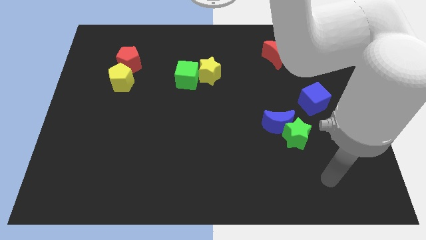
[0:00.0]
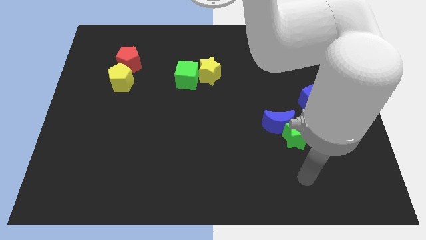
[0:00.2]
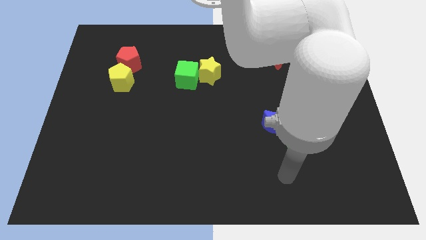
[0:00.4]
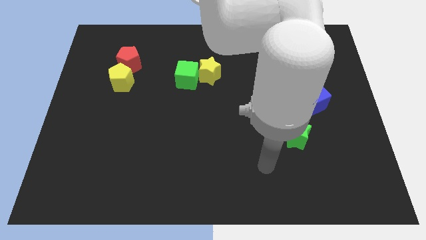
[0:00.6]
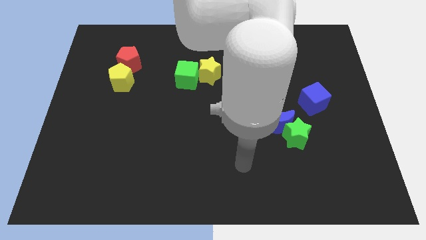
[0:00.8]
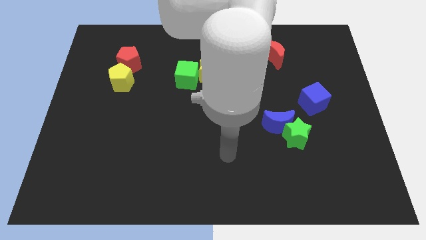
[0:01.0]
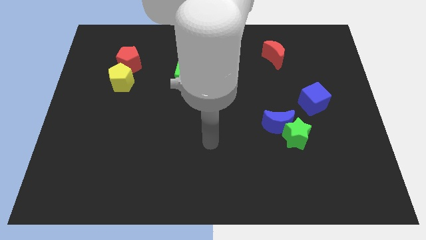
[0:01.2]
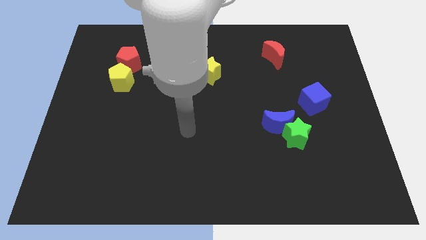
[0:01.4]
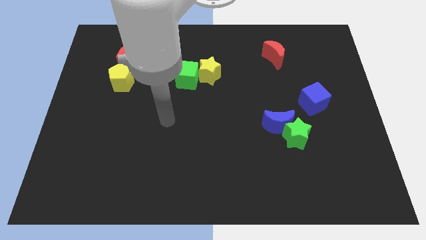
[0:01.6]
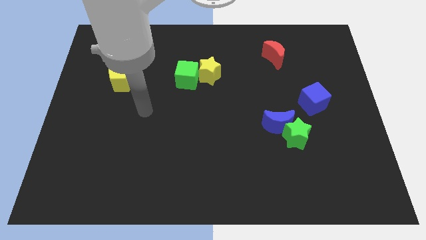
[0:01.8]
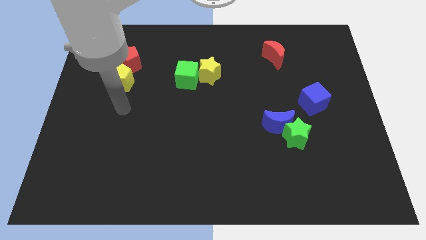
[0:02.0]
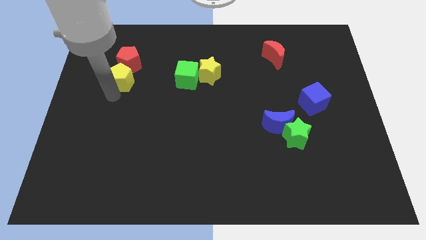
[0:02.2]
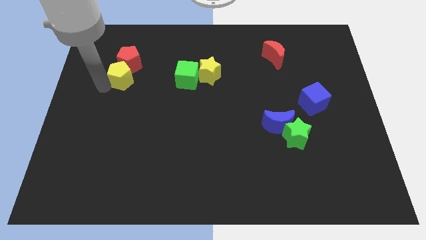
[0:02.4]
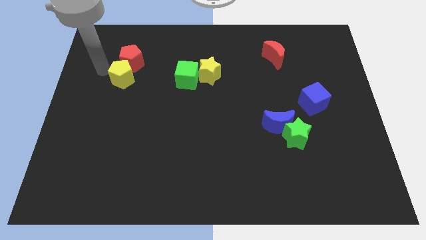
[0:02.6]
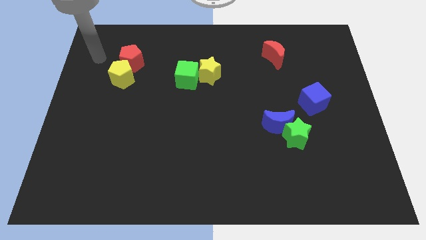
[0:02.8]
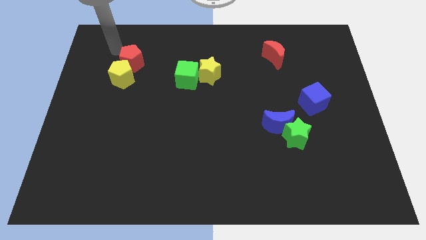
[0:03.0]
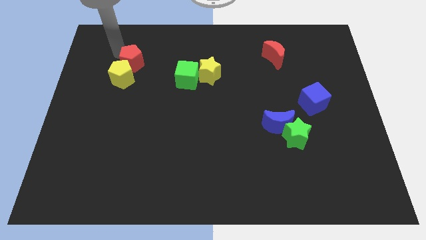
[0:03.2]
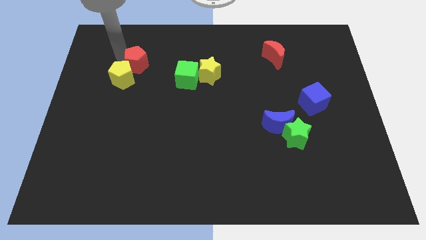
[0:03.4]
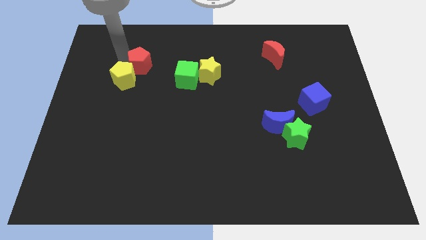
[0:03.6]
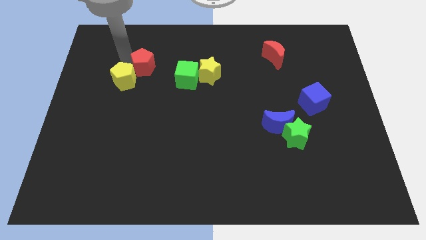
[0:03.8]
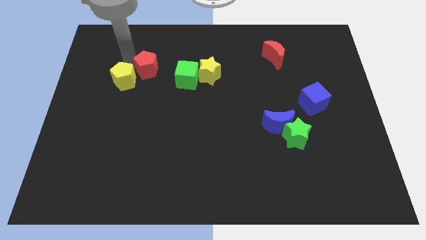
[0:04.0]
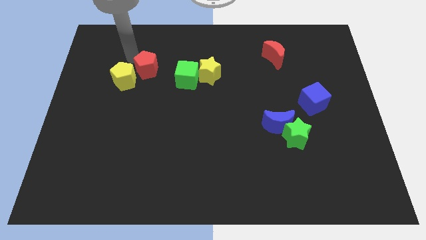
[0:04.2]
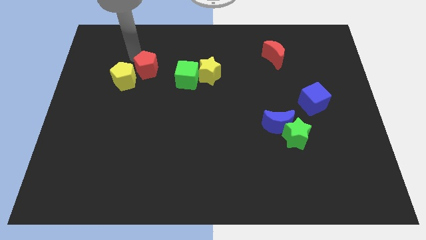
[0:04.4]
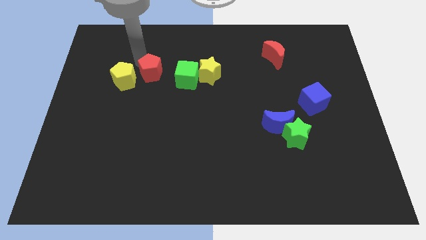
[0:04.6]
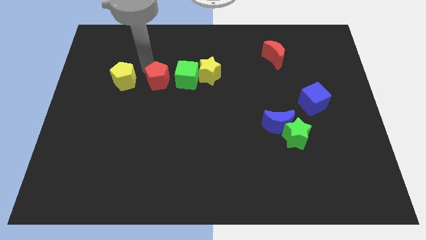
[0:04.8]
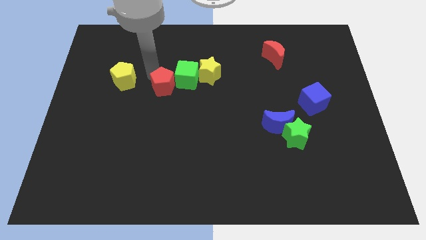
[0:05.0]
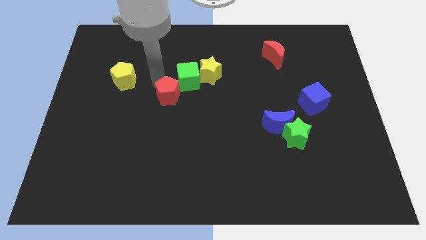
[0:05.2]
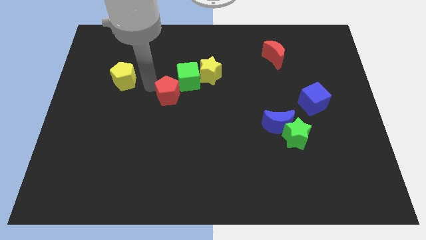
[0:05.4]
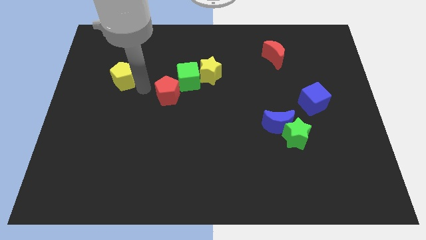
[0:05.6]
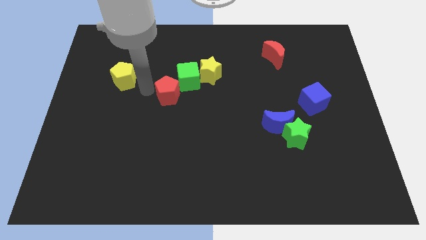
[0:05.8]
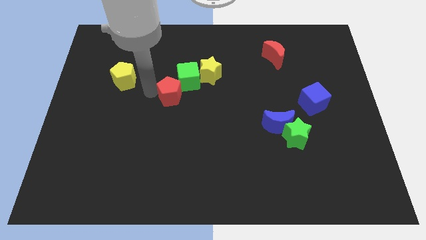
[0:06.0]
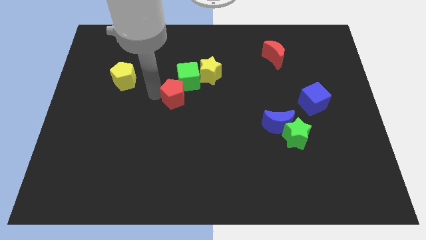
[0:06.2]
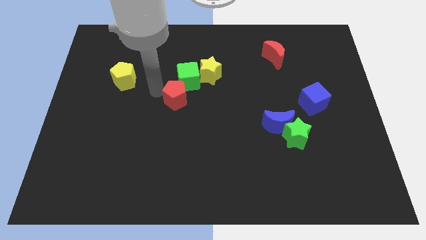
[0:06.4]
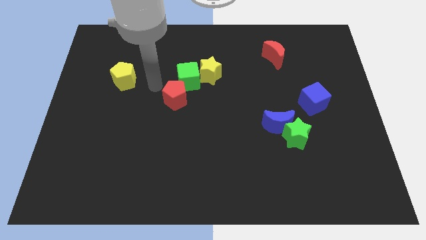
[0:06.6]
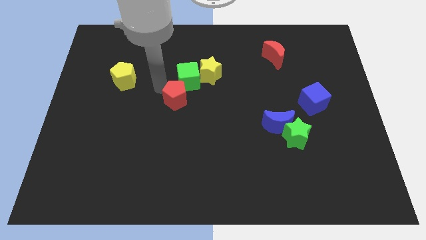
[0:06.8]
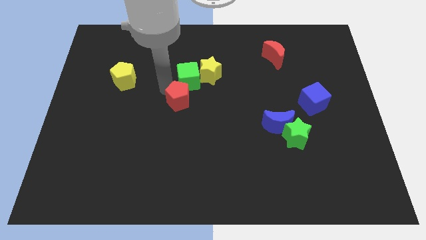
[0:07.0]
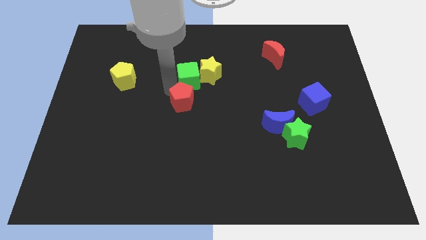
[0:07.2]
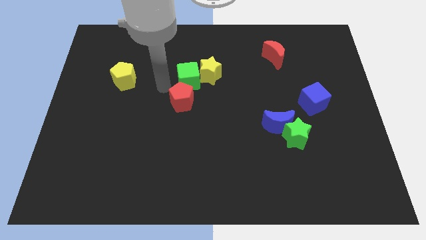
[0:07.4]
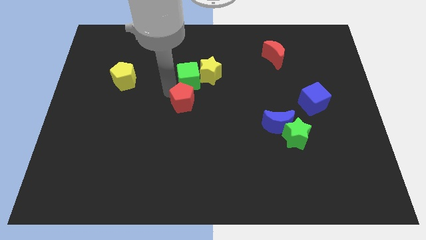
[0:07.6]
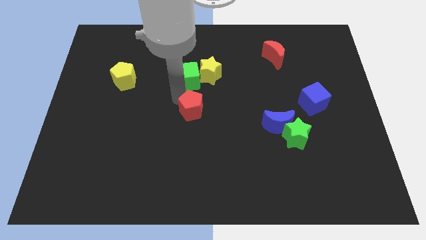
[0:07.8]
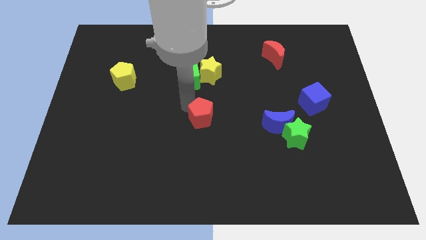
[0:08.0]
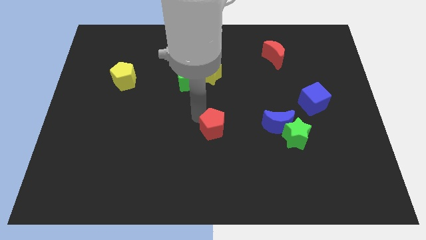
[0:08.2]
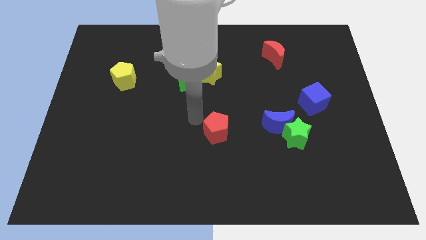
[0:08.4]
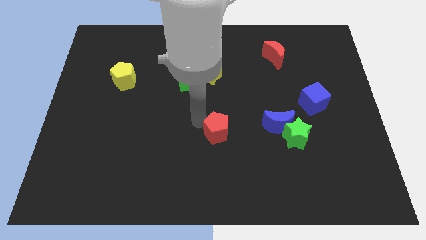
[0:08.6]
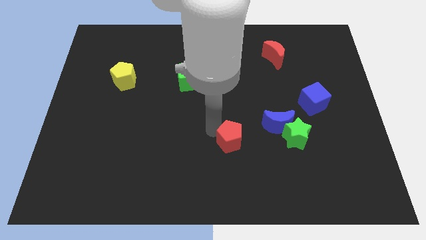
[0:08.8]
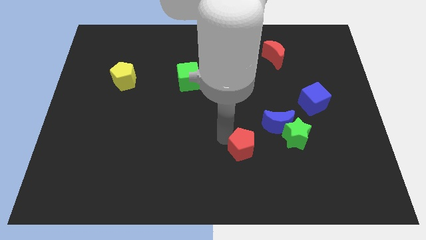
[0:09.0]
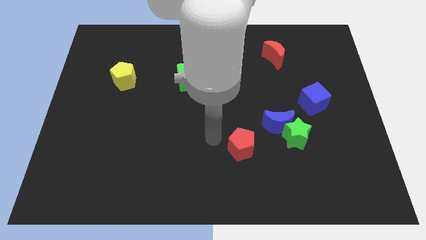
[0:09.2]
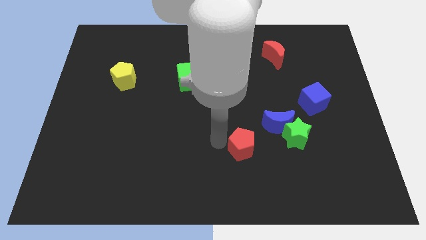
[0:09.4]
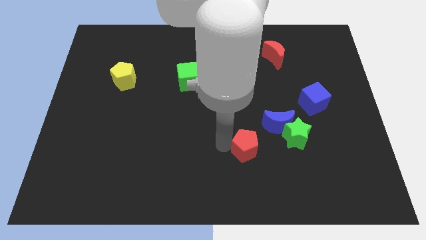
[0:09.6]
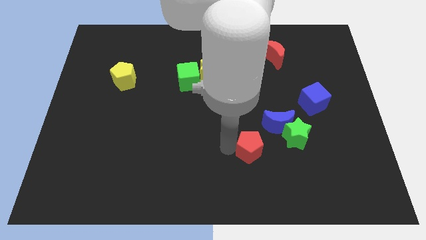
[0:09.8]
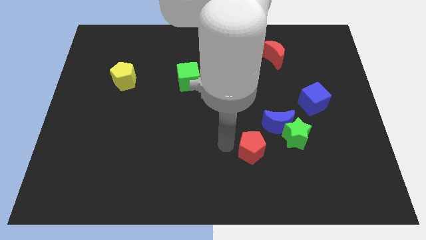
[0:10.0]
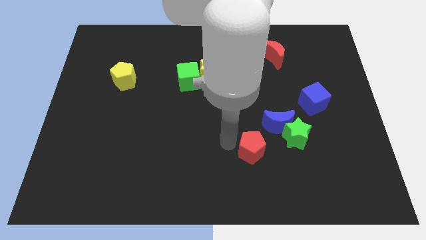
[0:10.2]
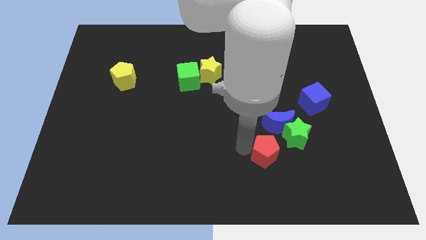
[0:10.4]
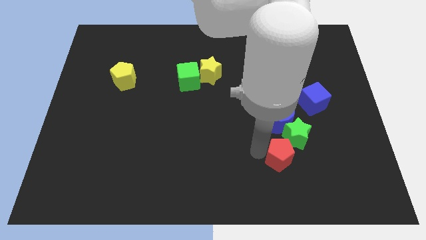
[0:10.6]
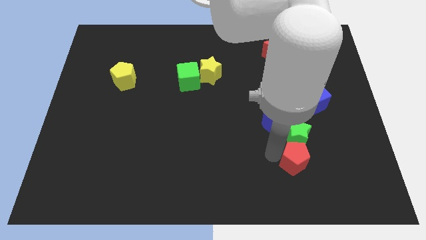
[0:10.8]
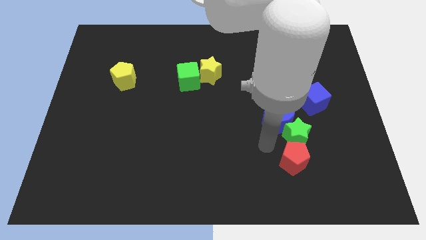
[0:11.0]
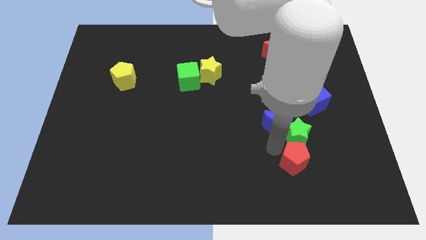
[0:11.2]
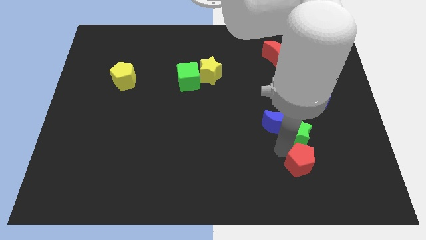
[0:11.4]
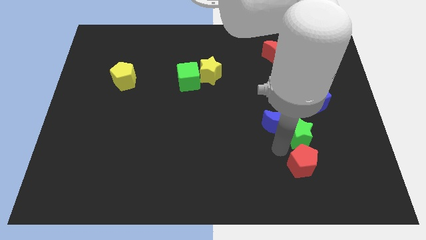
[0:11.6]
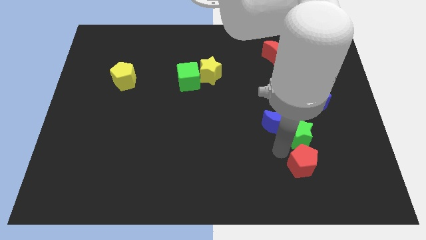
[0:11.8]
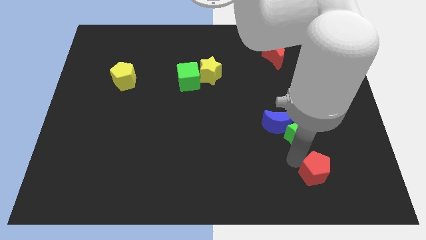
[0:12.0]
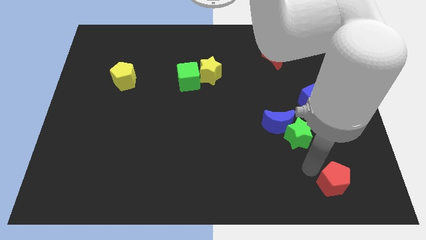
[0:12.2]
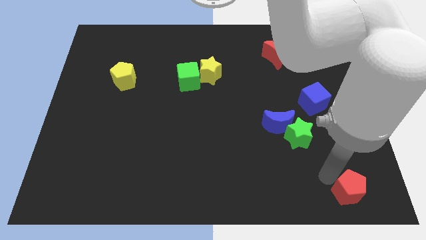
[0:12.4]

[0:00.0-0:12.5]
put the red pentagon to the bottom right
